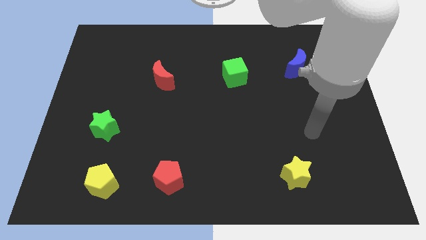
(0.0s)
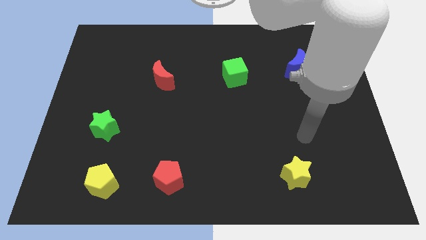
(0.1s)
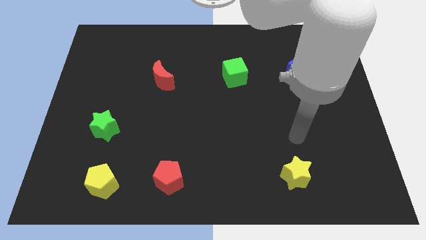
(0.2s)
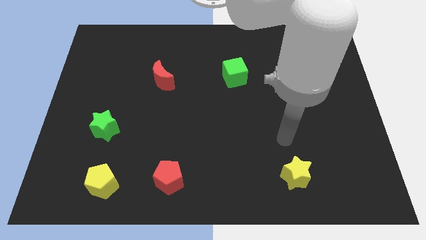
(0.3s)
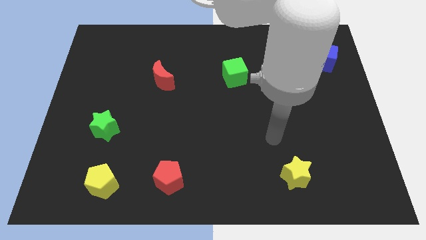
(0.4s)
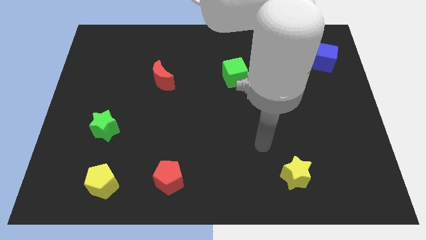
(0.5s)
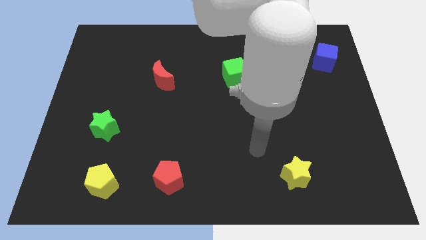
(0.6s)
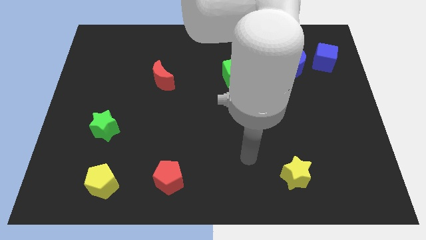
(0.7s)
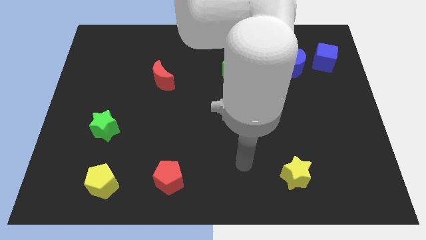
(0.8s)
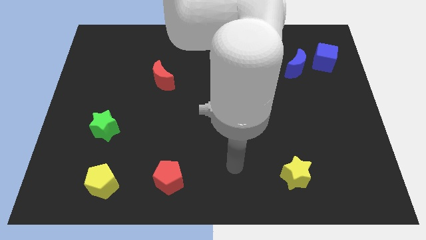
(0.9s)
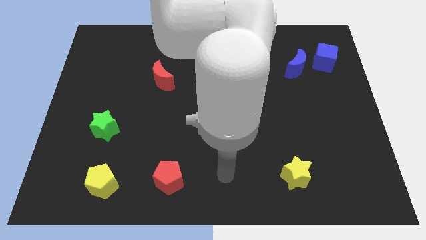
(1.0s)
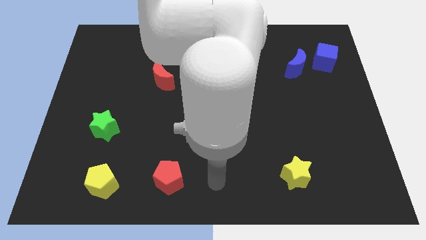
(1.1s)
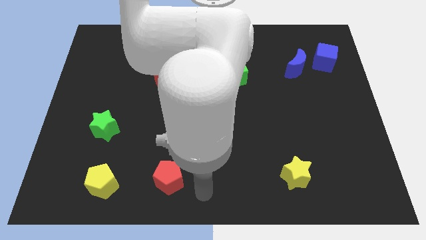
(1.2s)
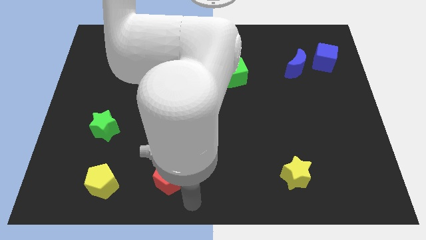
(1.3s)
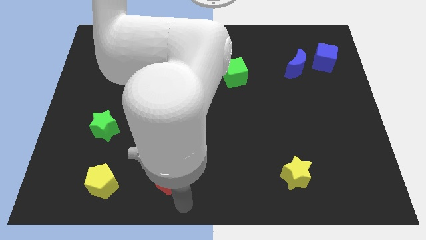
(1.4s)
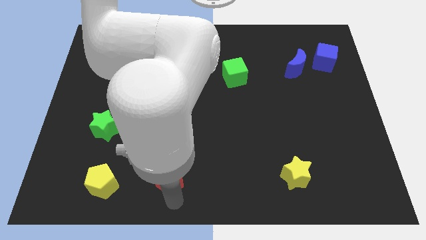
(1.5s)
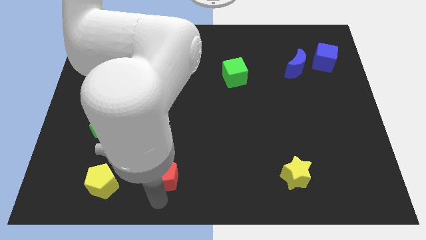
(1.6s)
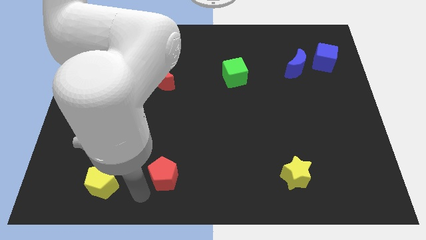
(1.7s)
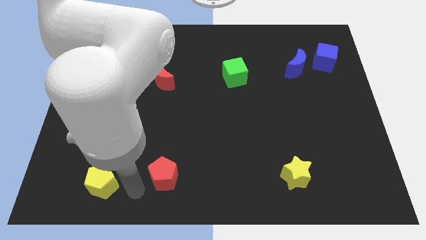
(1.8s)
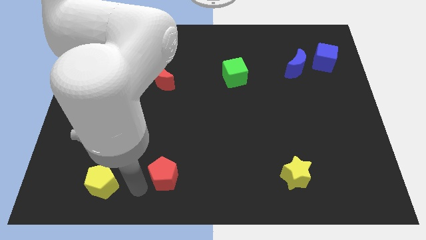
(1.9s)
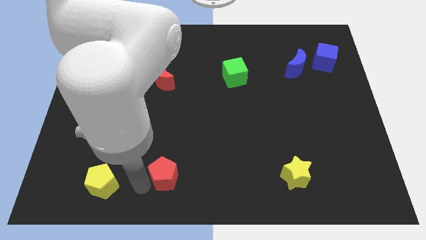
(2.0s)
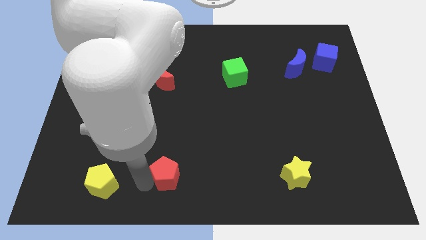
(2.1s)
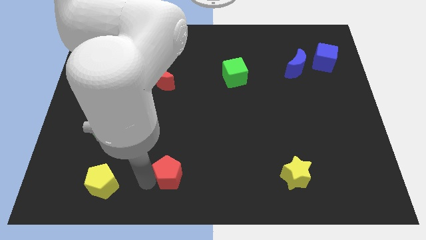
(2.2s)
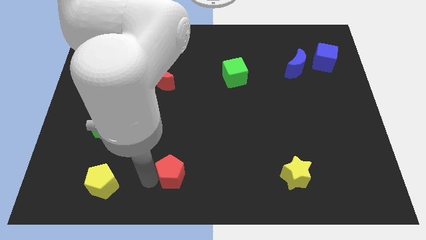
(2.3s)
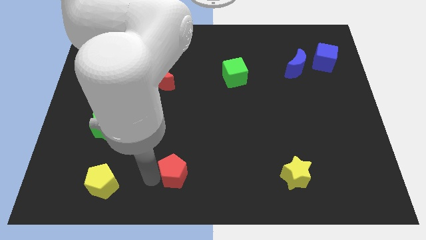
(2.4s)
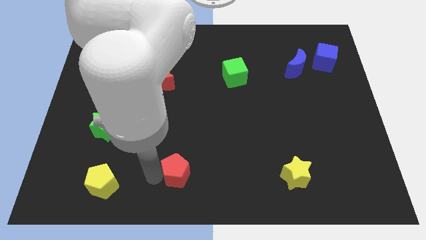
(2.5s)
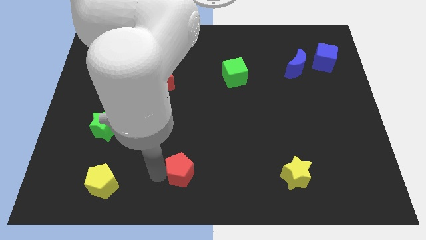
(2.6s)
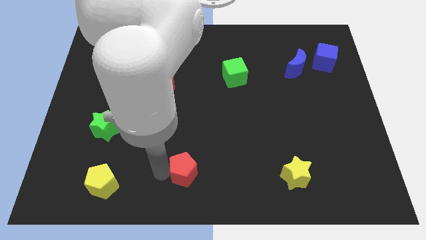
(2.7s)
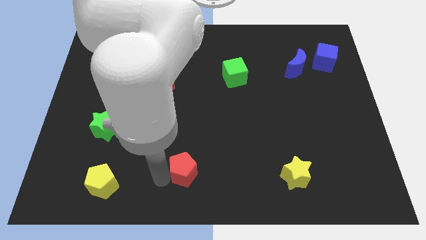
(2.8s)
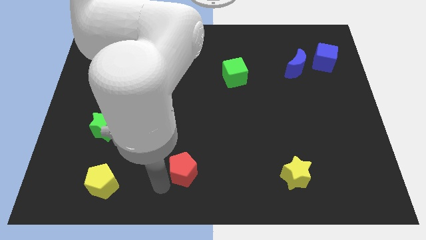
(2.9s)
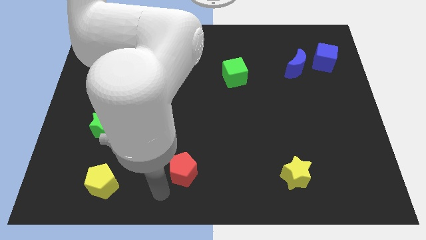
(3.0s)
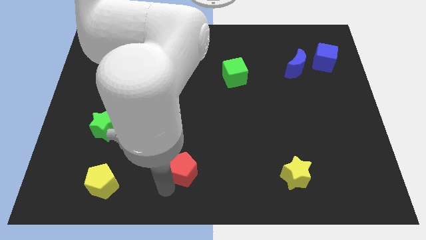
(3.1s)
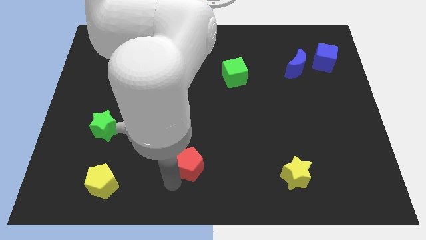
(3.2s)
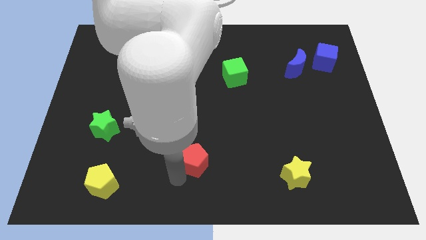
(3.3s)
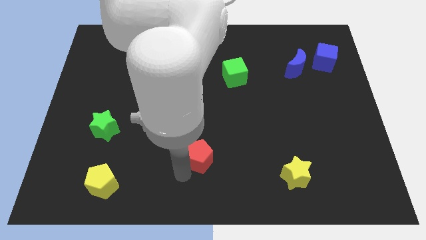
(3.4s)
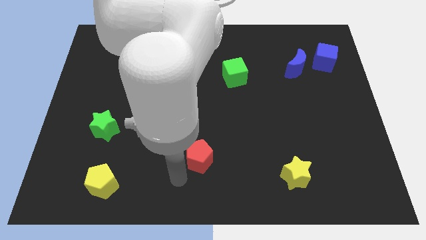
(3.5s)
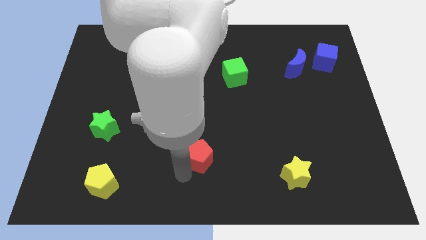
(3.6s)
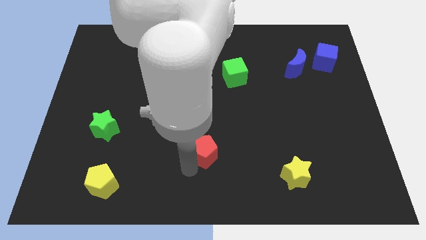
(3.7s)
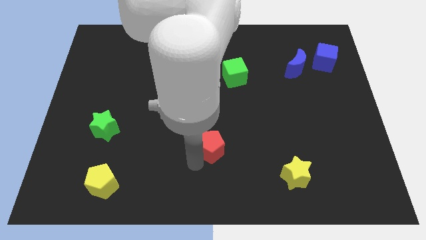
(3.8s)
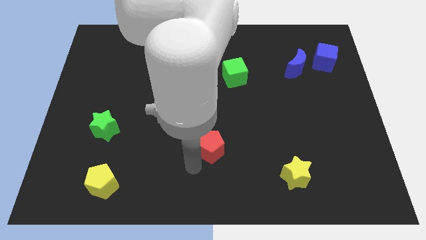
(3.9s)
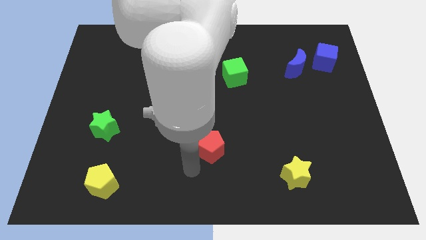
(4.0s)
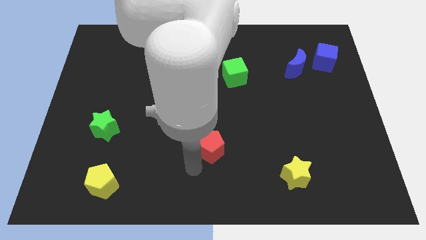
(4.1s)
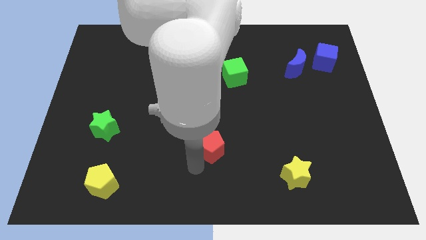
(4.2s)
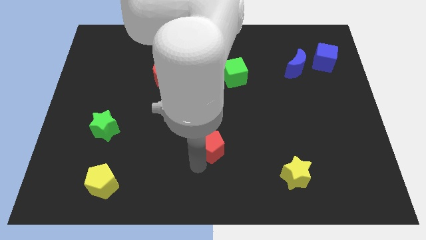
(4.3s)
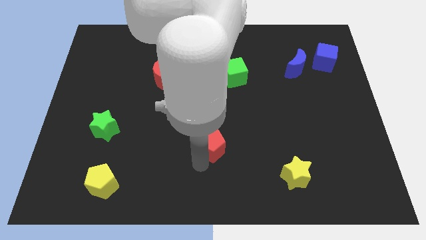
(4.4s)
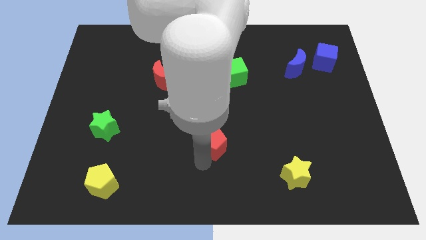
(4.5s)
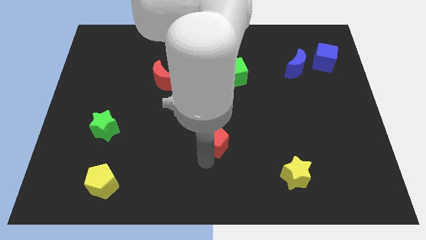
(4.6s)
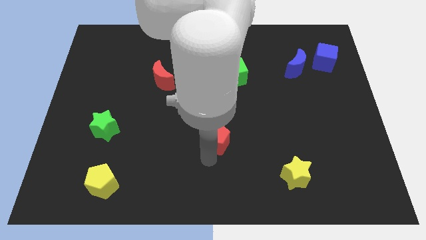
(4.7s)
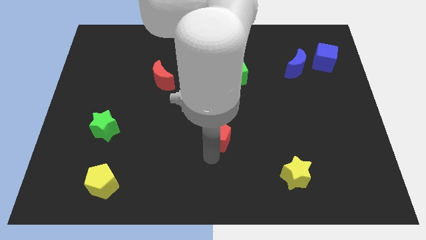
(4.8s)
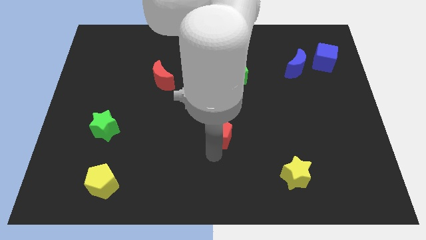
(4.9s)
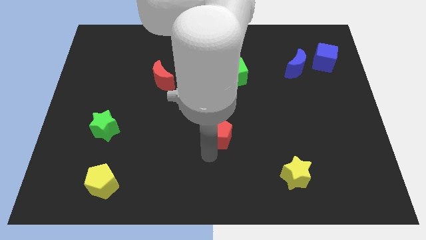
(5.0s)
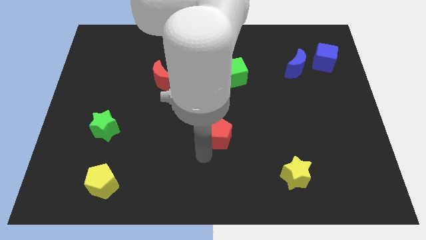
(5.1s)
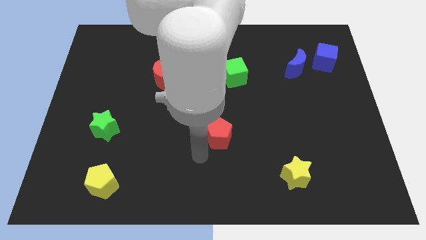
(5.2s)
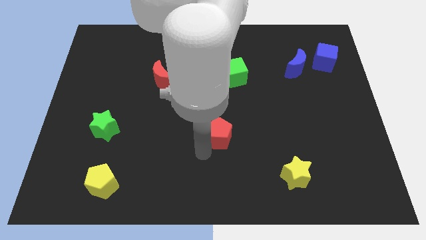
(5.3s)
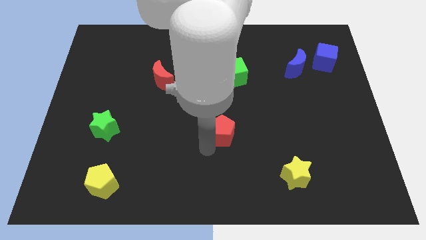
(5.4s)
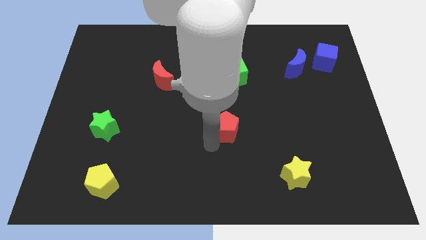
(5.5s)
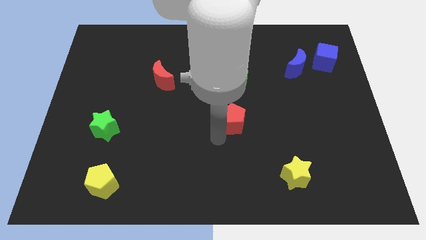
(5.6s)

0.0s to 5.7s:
push the red pentagon upwards and right

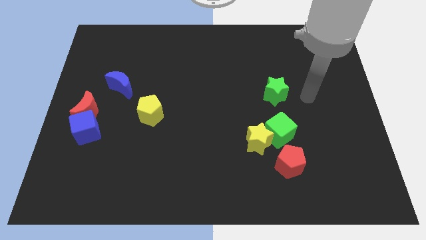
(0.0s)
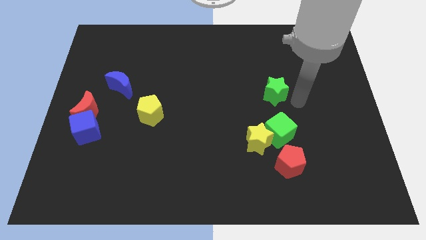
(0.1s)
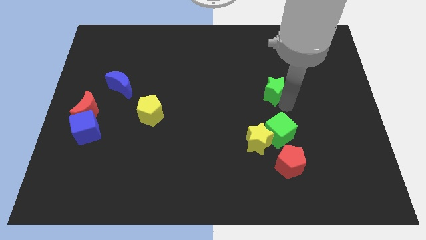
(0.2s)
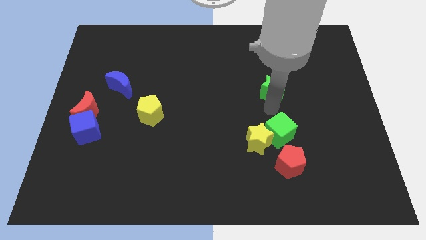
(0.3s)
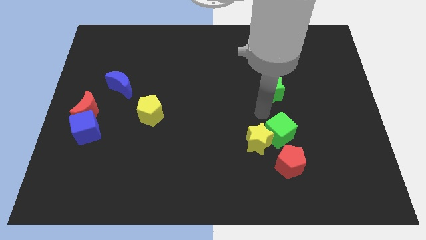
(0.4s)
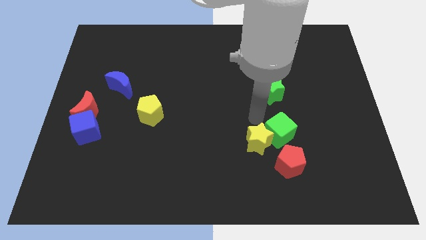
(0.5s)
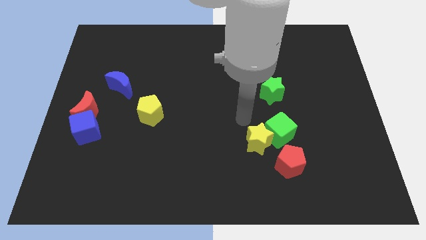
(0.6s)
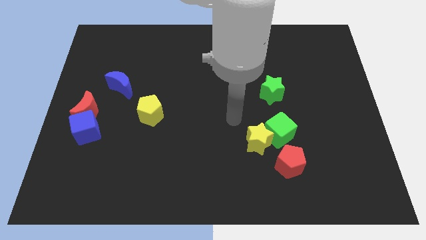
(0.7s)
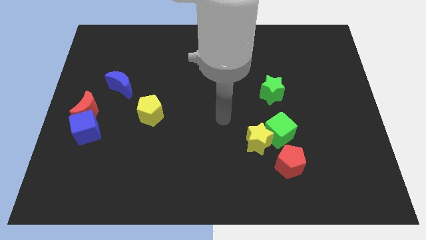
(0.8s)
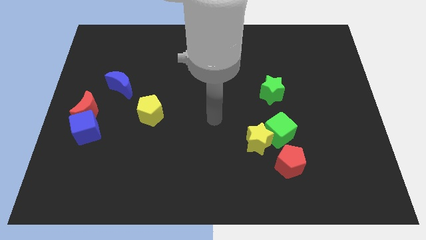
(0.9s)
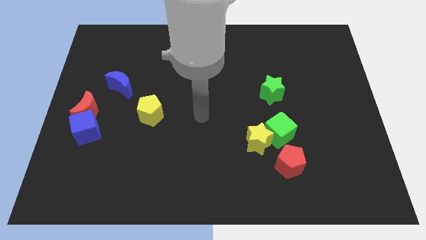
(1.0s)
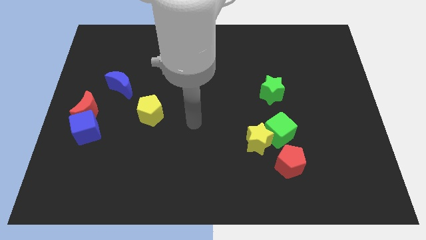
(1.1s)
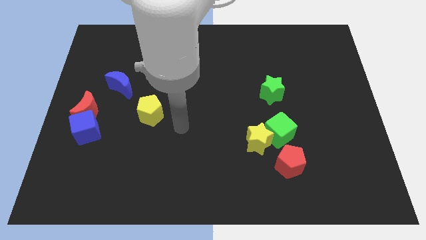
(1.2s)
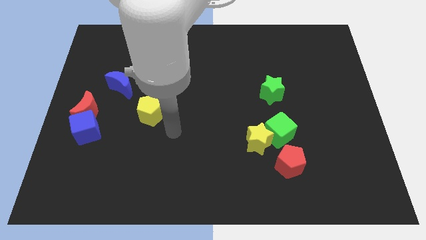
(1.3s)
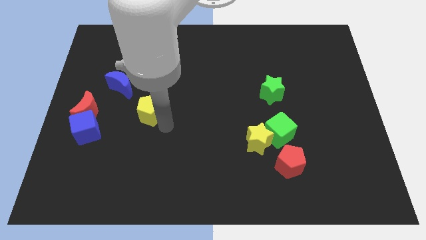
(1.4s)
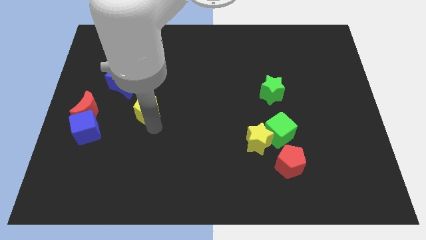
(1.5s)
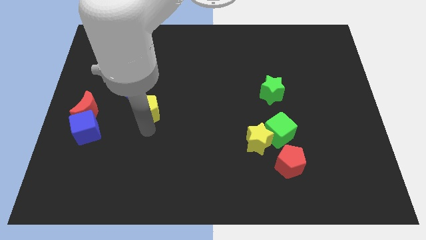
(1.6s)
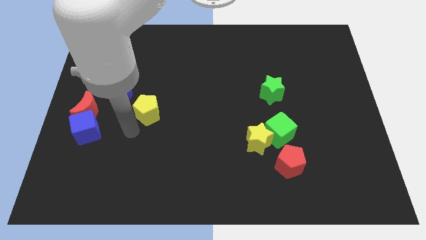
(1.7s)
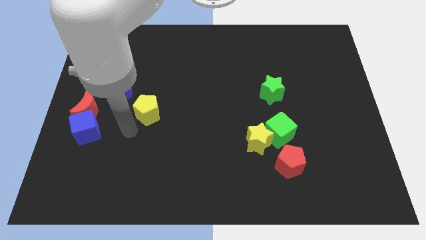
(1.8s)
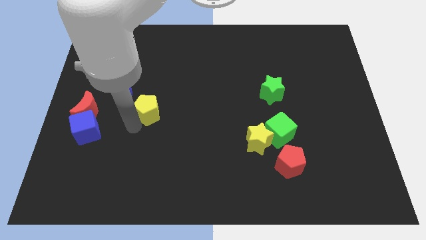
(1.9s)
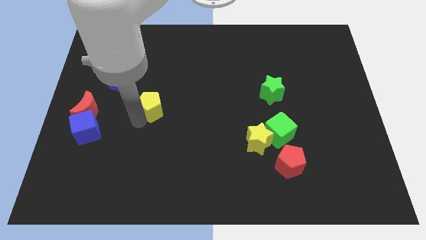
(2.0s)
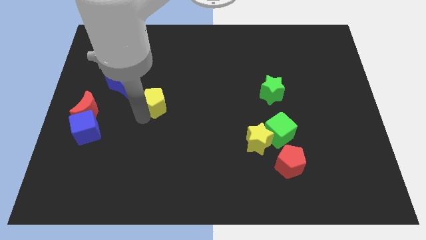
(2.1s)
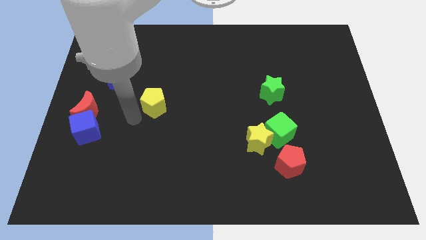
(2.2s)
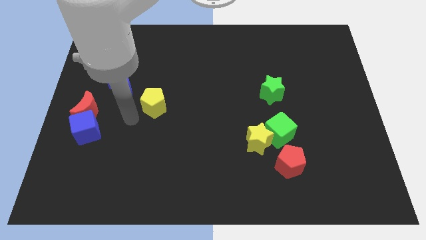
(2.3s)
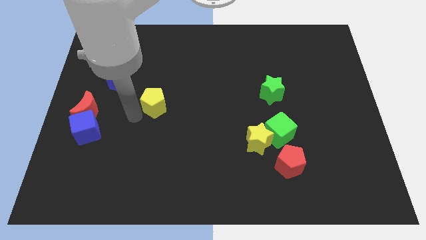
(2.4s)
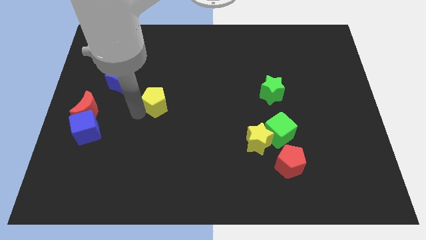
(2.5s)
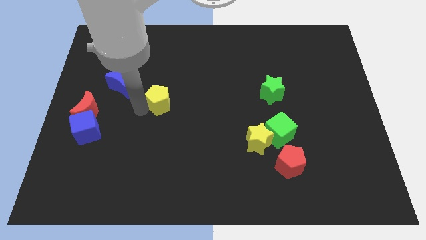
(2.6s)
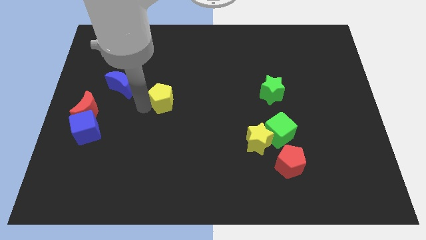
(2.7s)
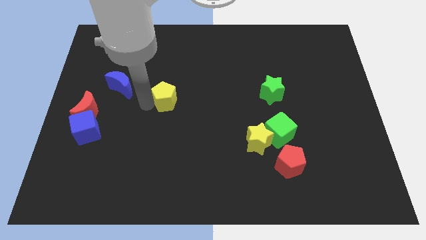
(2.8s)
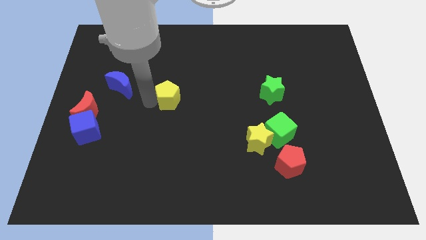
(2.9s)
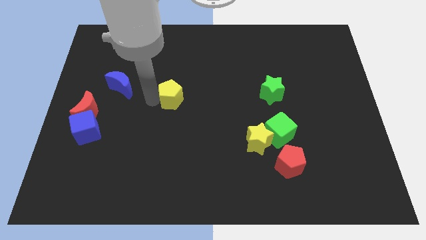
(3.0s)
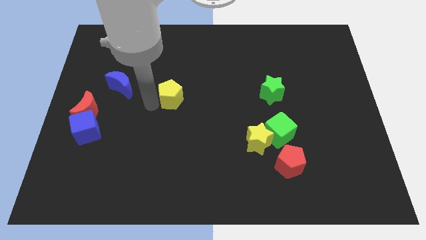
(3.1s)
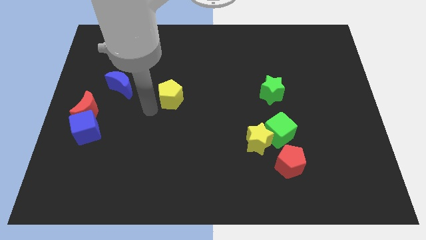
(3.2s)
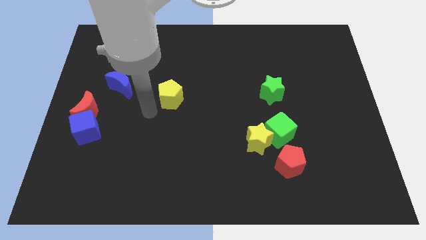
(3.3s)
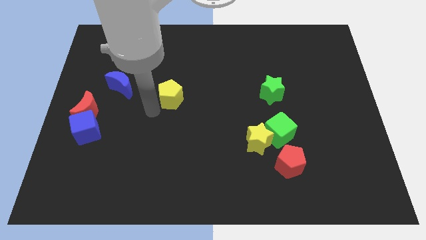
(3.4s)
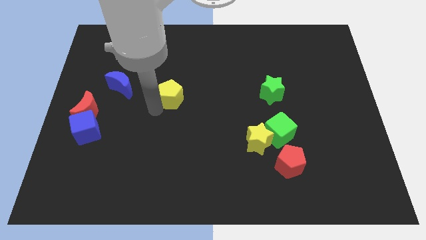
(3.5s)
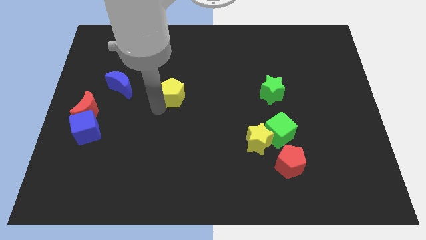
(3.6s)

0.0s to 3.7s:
slide the yellow pentagon diagonally up and to the right a bit
